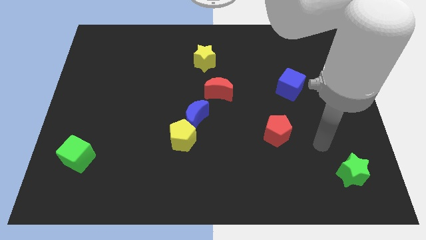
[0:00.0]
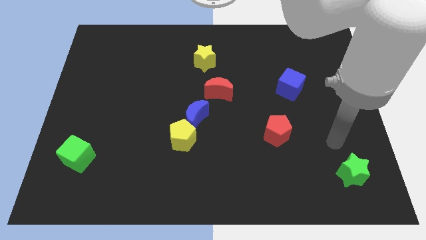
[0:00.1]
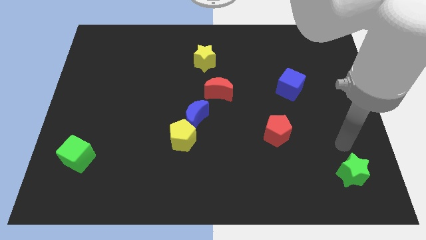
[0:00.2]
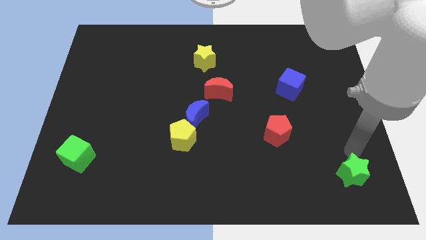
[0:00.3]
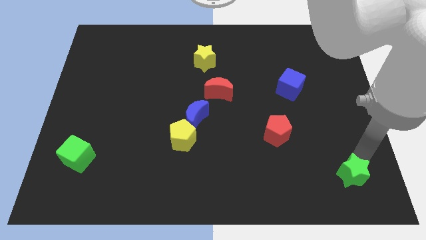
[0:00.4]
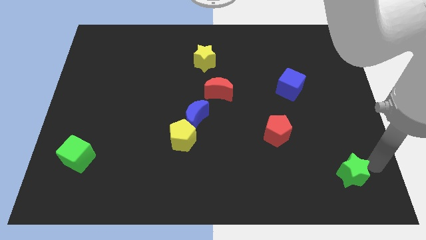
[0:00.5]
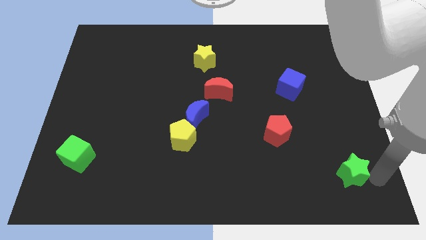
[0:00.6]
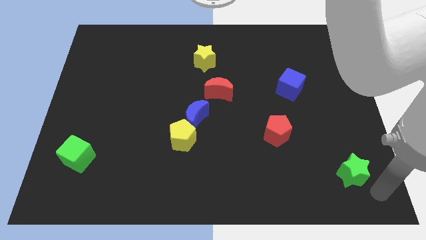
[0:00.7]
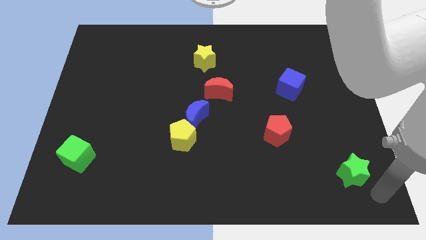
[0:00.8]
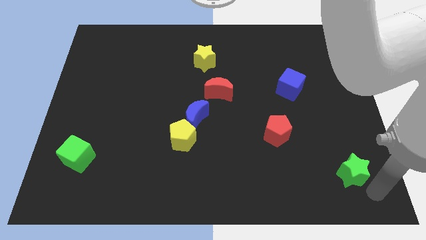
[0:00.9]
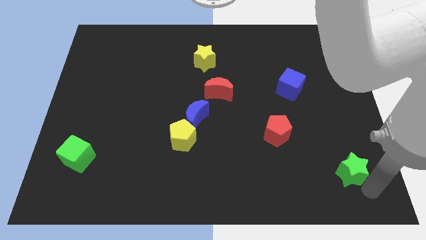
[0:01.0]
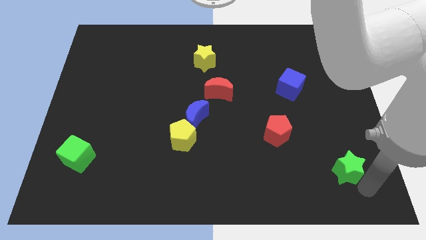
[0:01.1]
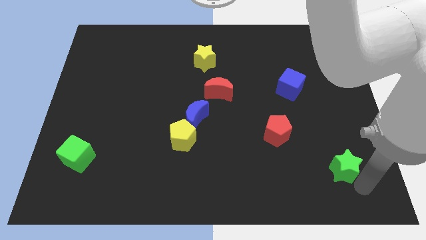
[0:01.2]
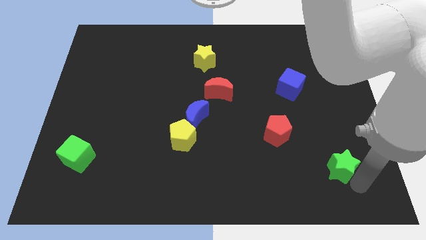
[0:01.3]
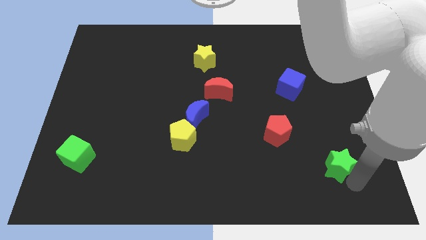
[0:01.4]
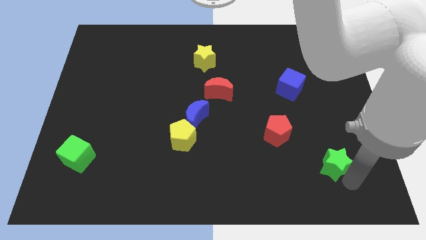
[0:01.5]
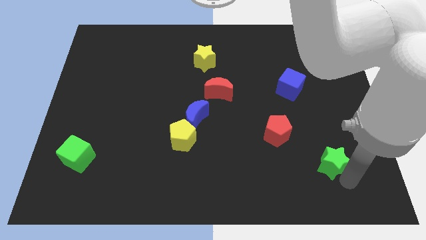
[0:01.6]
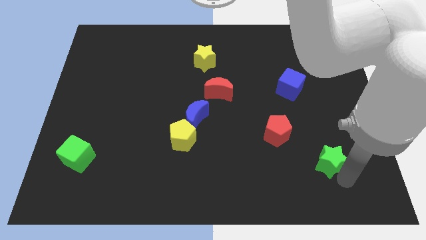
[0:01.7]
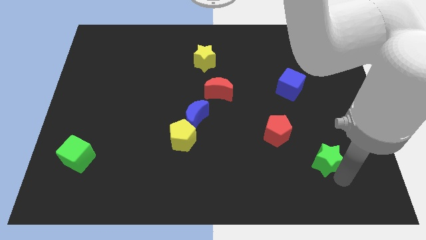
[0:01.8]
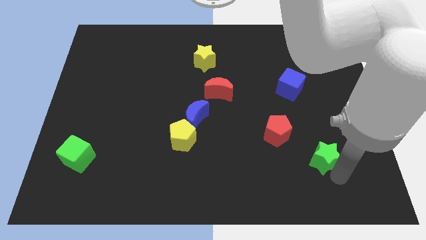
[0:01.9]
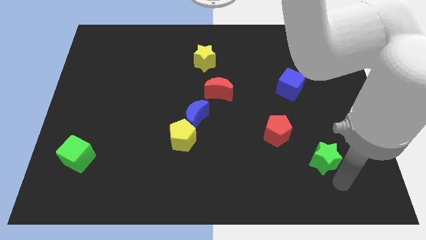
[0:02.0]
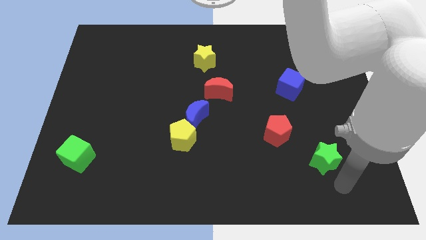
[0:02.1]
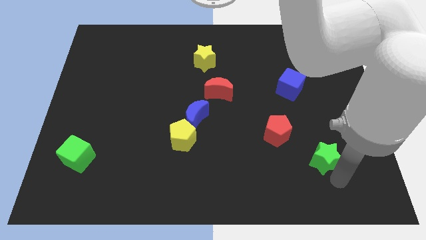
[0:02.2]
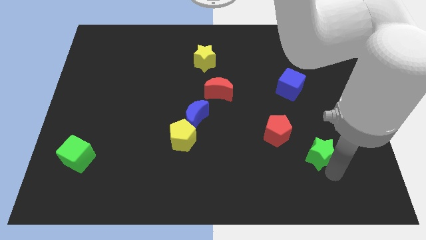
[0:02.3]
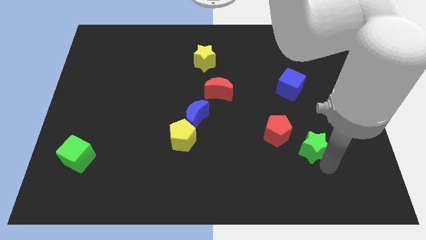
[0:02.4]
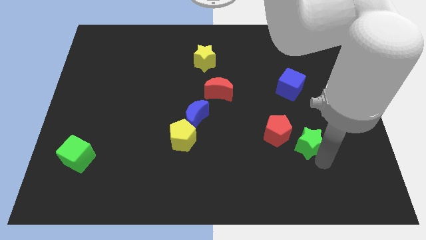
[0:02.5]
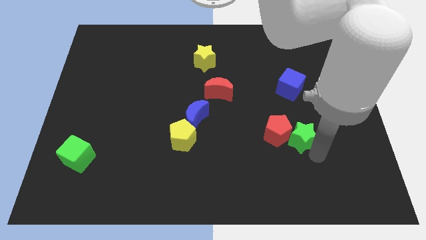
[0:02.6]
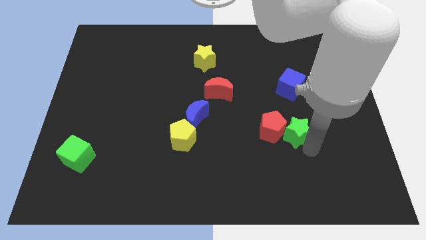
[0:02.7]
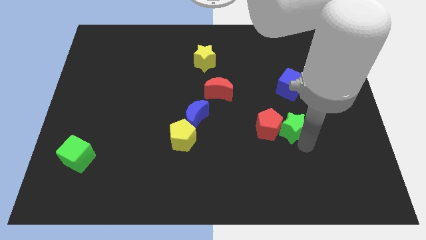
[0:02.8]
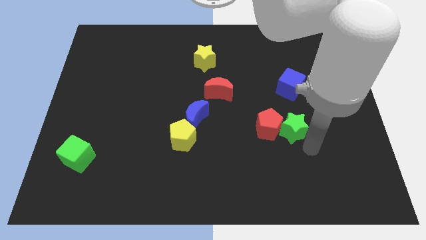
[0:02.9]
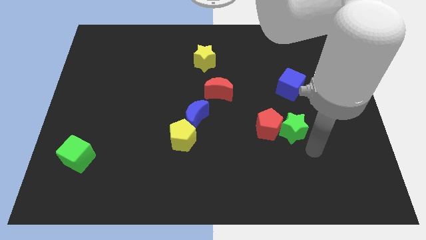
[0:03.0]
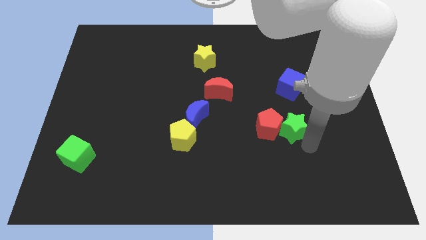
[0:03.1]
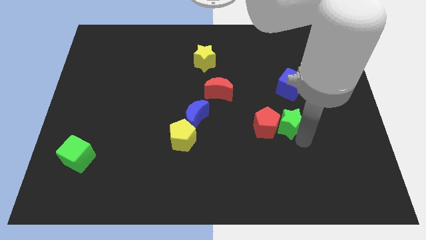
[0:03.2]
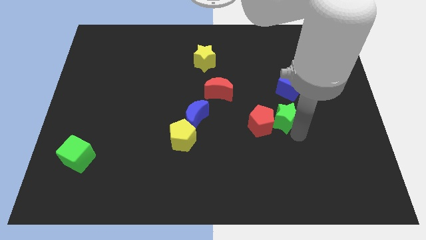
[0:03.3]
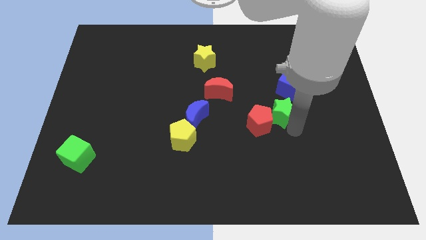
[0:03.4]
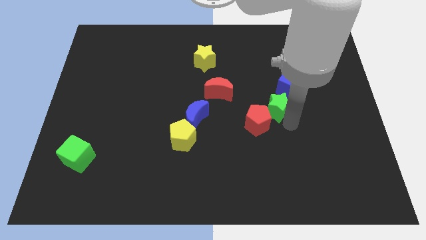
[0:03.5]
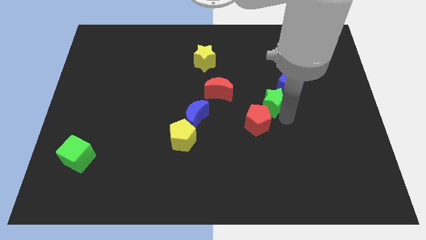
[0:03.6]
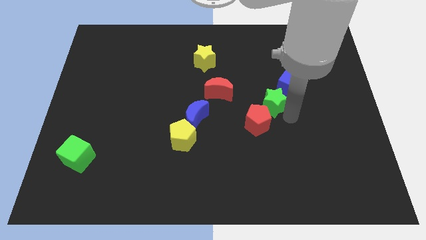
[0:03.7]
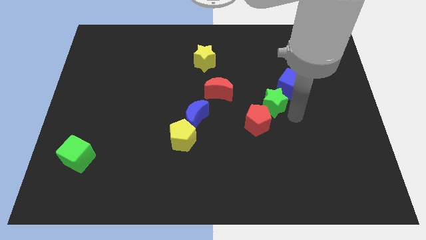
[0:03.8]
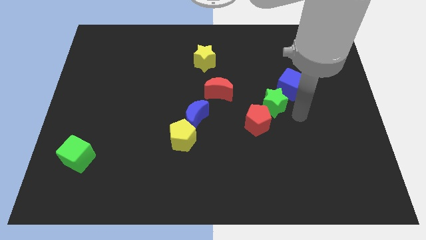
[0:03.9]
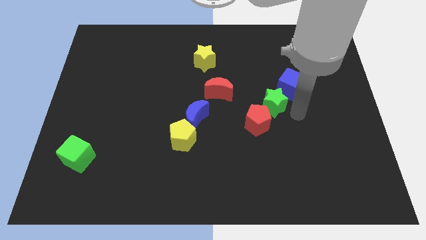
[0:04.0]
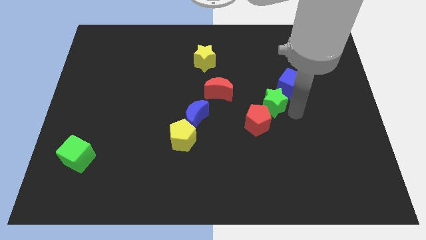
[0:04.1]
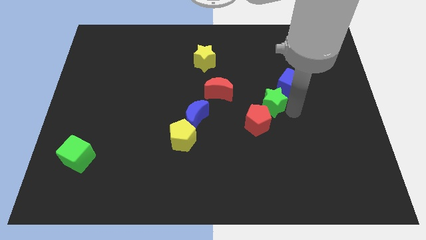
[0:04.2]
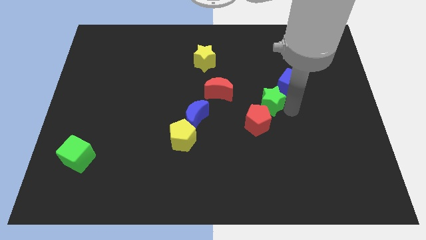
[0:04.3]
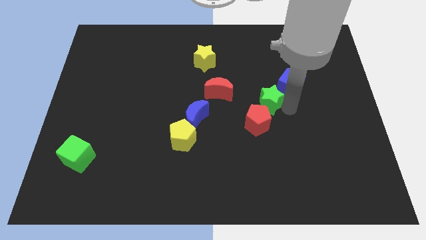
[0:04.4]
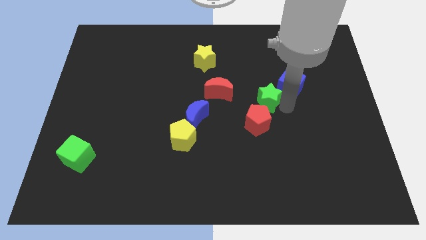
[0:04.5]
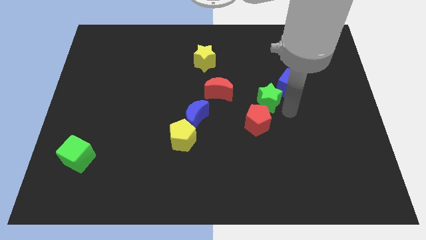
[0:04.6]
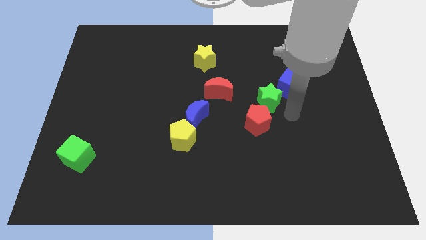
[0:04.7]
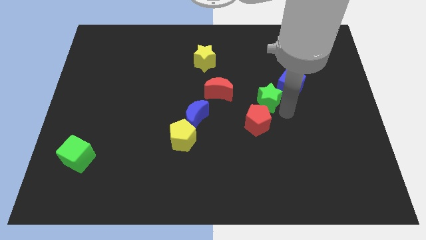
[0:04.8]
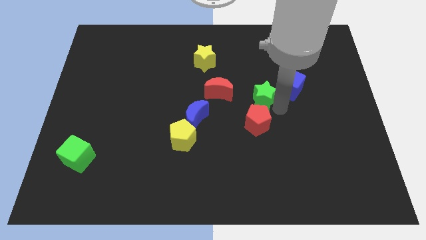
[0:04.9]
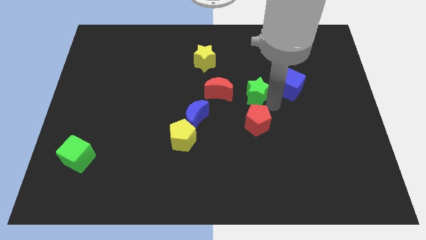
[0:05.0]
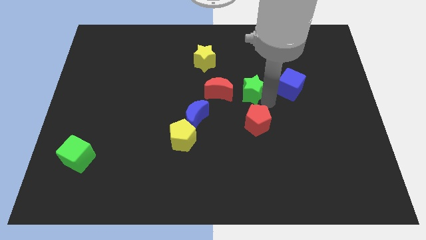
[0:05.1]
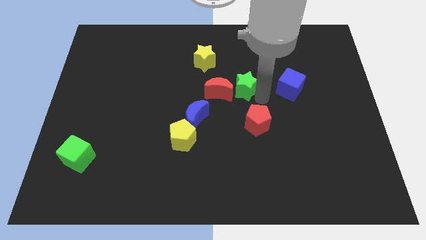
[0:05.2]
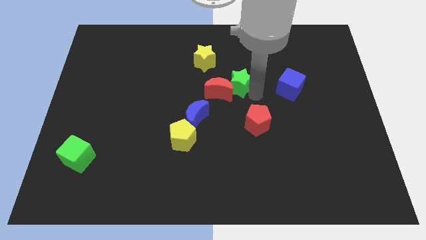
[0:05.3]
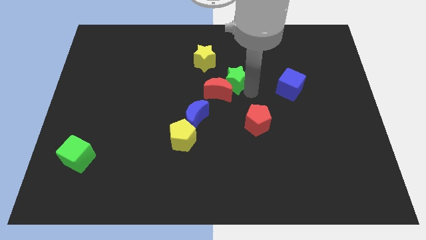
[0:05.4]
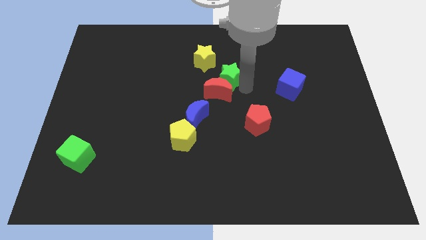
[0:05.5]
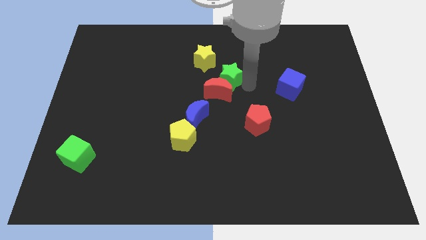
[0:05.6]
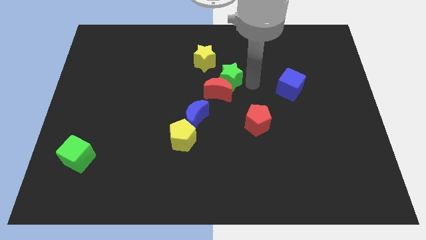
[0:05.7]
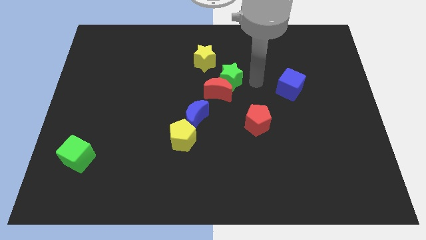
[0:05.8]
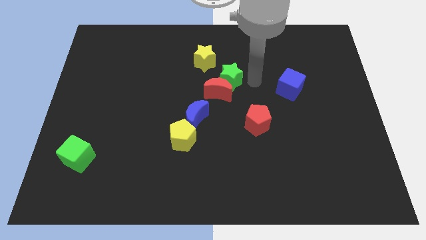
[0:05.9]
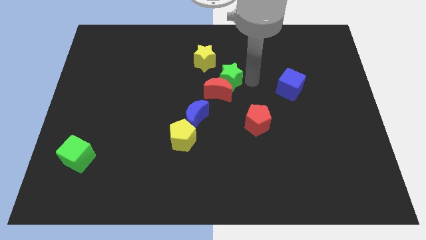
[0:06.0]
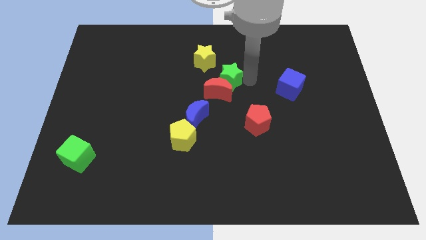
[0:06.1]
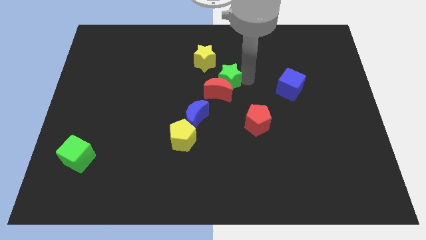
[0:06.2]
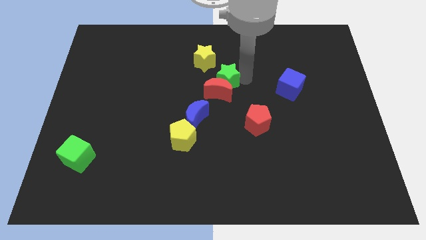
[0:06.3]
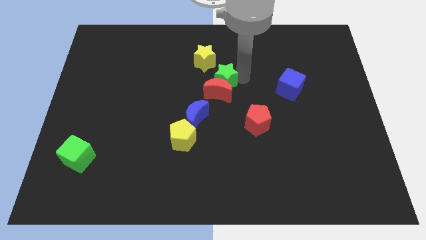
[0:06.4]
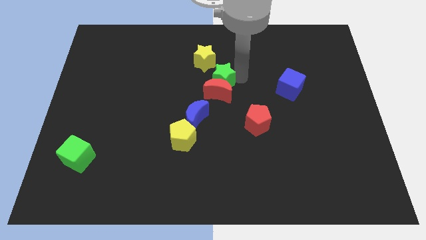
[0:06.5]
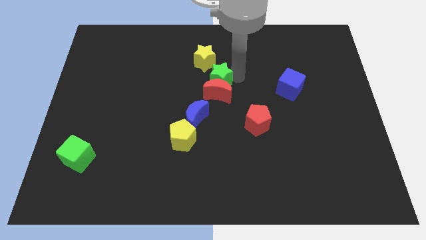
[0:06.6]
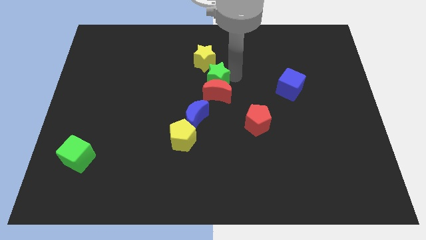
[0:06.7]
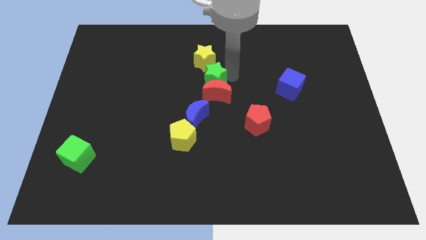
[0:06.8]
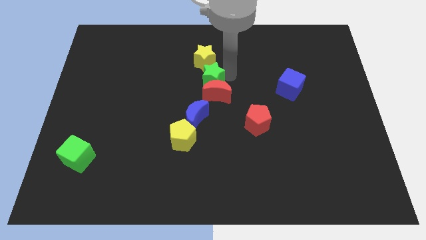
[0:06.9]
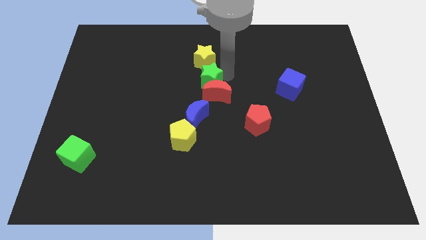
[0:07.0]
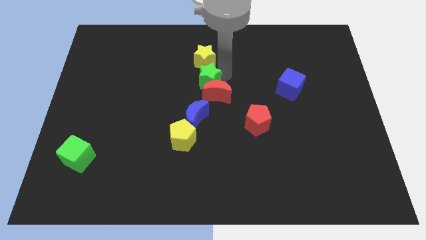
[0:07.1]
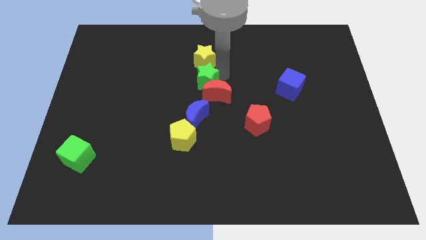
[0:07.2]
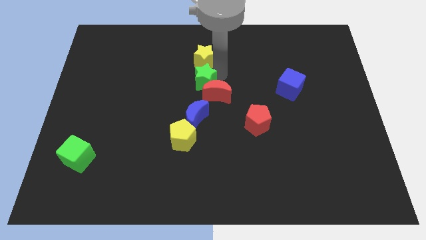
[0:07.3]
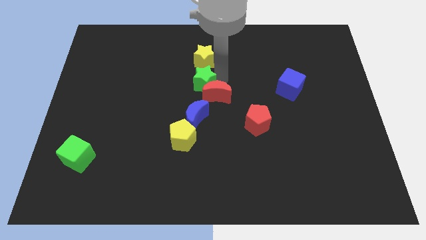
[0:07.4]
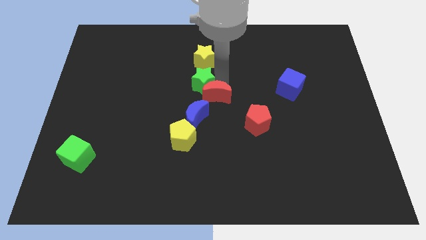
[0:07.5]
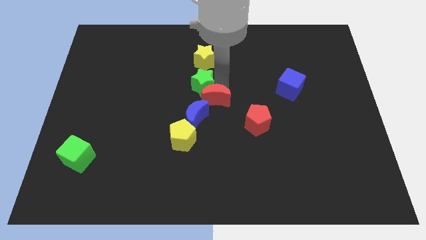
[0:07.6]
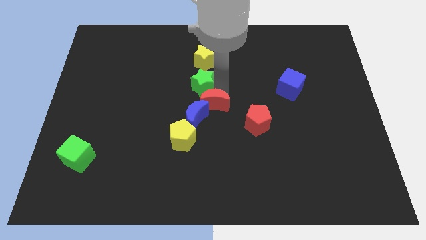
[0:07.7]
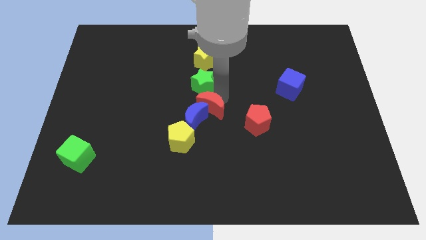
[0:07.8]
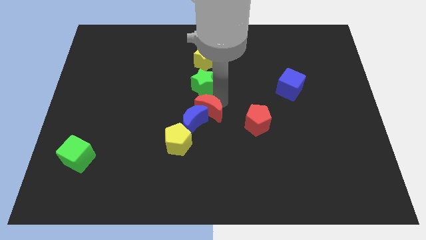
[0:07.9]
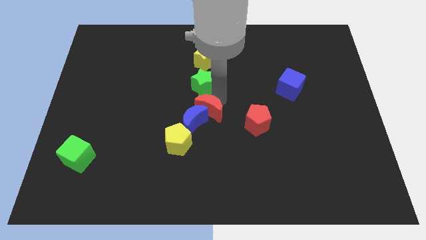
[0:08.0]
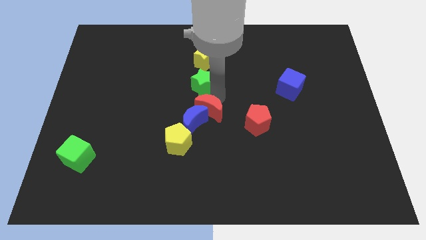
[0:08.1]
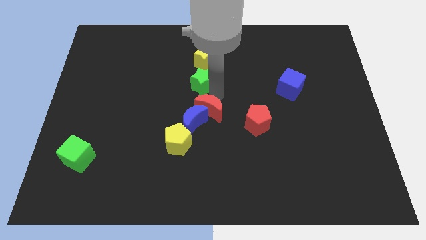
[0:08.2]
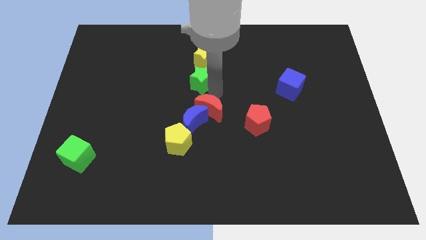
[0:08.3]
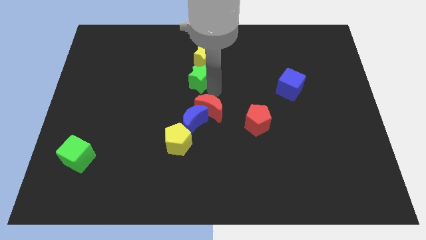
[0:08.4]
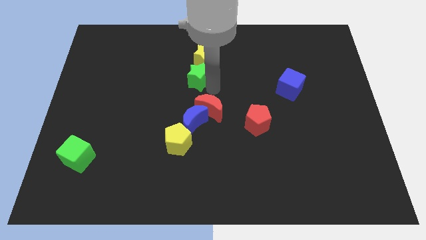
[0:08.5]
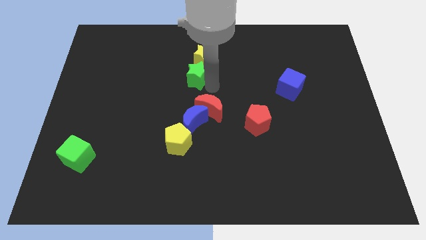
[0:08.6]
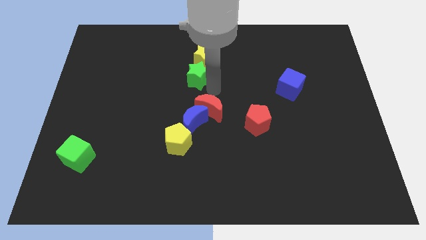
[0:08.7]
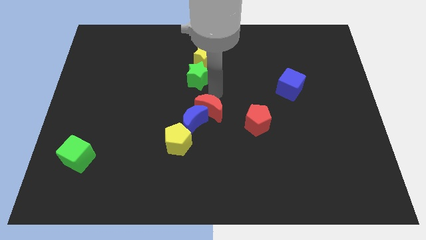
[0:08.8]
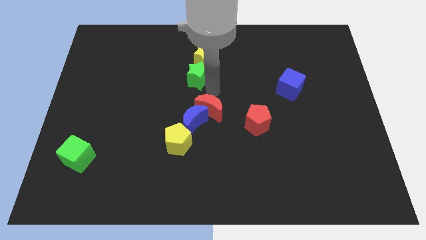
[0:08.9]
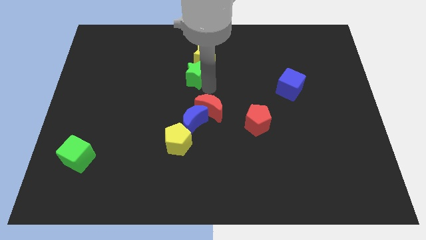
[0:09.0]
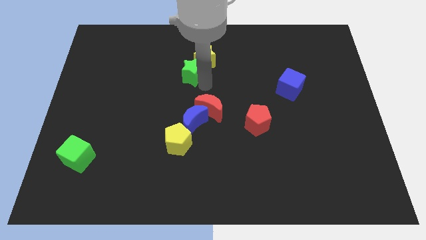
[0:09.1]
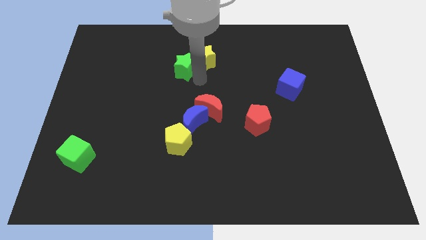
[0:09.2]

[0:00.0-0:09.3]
move the green star to the left of the yellow star
